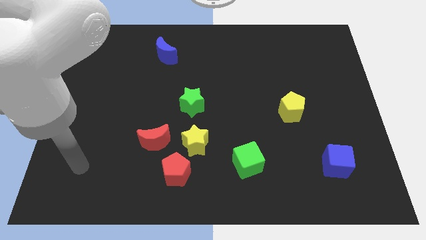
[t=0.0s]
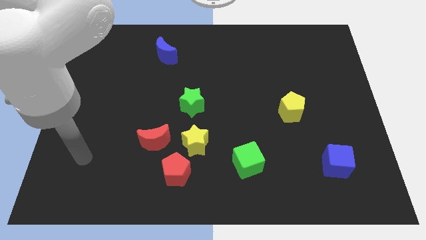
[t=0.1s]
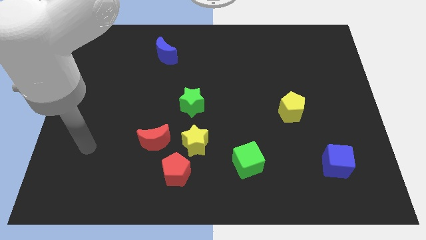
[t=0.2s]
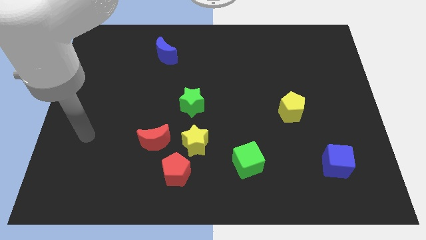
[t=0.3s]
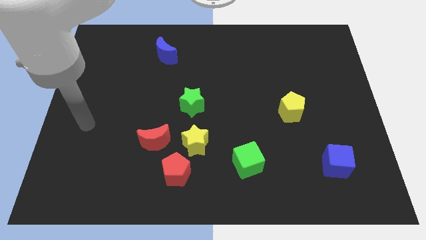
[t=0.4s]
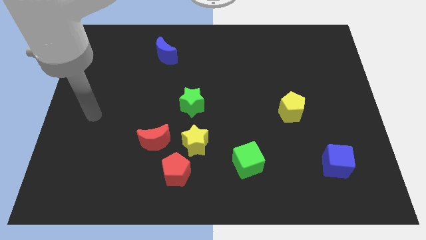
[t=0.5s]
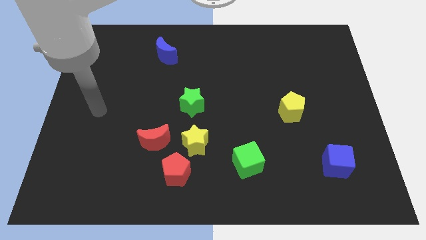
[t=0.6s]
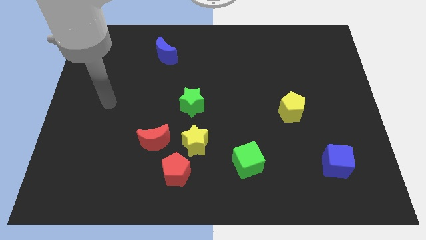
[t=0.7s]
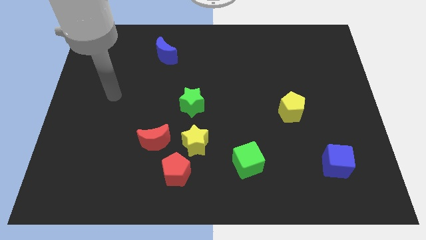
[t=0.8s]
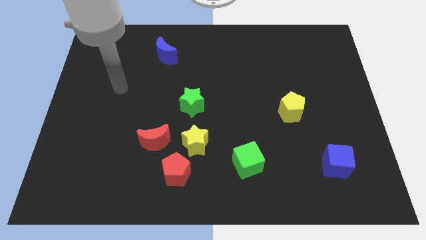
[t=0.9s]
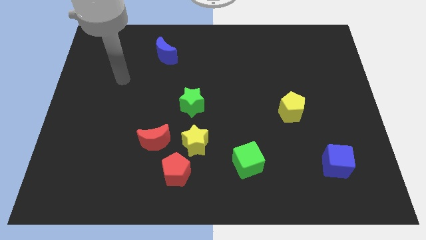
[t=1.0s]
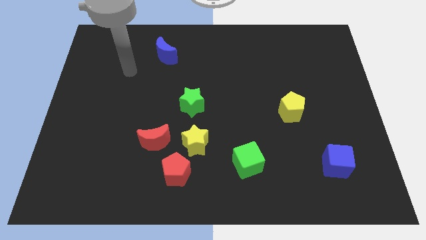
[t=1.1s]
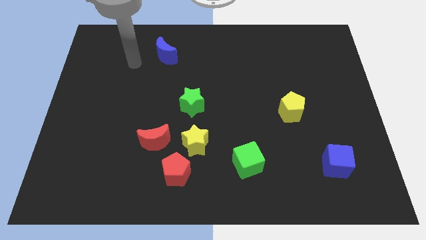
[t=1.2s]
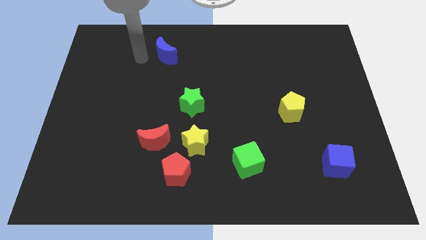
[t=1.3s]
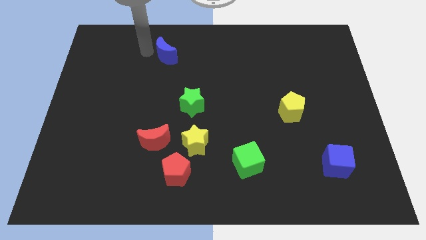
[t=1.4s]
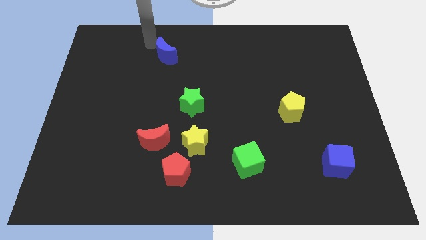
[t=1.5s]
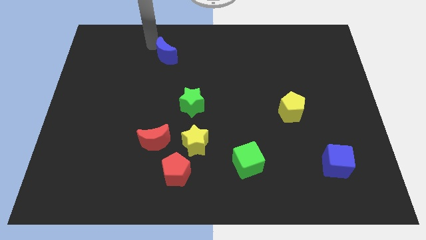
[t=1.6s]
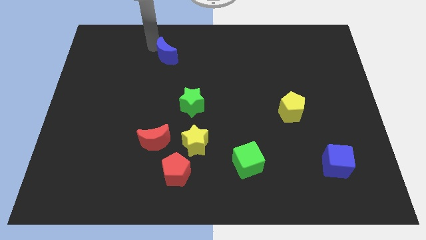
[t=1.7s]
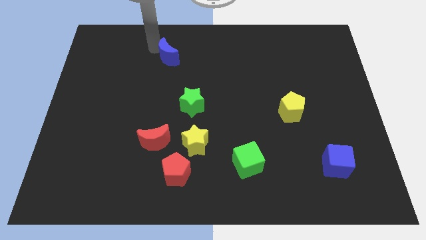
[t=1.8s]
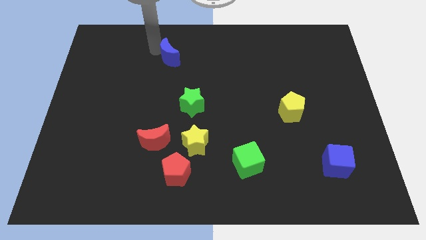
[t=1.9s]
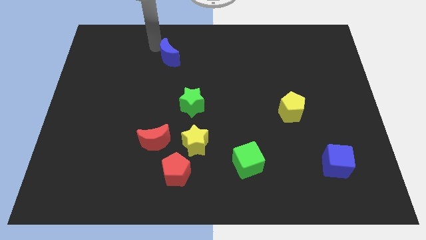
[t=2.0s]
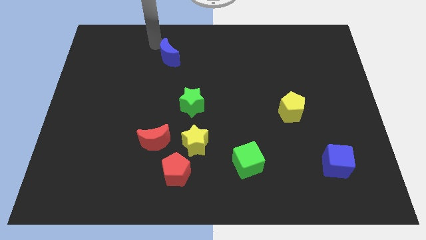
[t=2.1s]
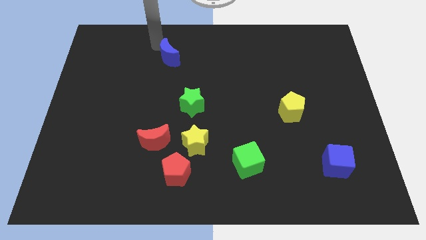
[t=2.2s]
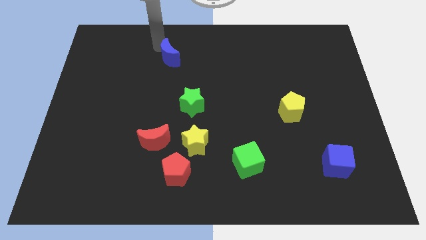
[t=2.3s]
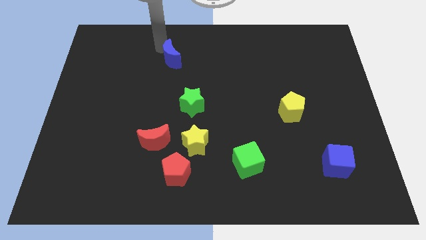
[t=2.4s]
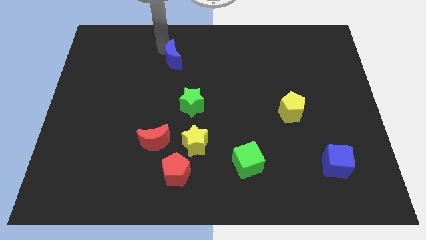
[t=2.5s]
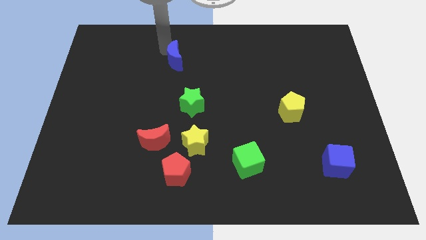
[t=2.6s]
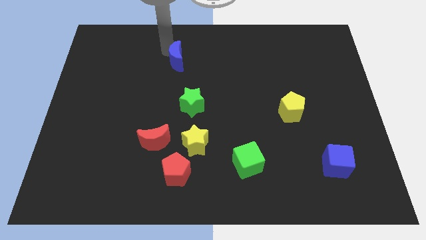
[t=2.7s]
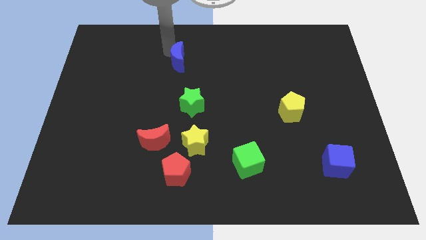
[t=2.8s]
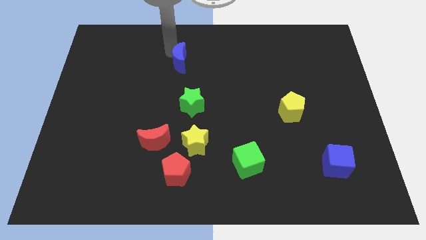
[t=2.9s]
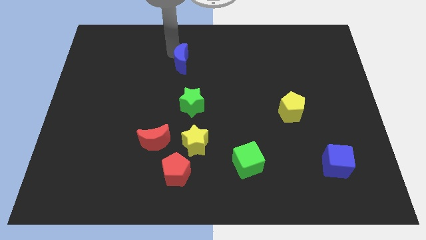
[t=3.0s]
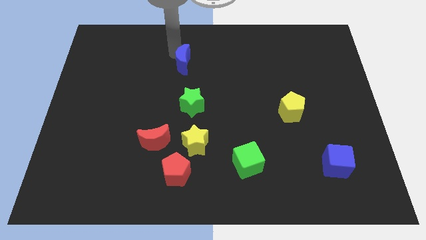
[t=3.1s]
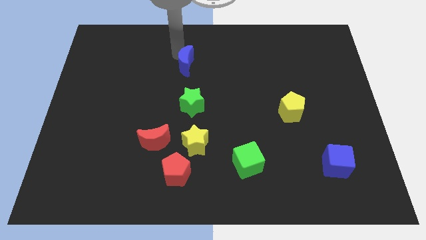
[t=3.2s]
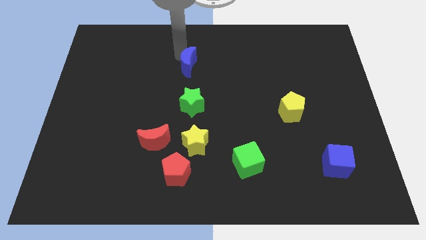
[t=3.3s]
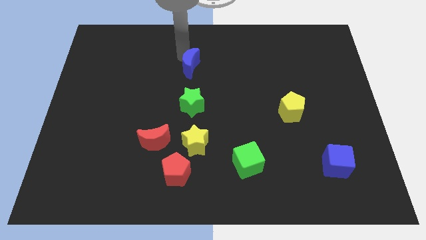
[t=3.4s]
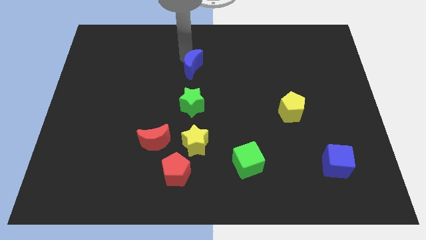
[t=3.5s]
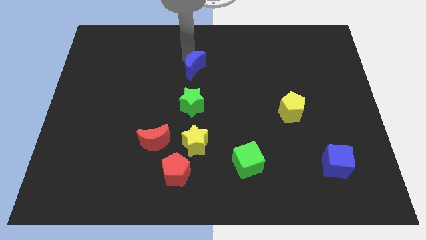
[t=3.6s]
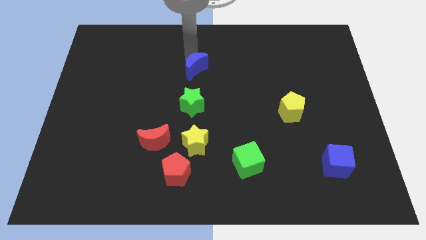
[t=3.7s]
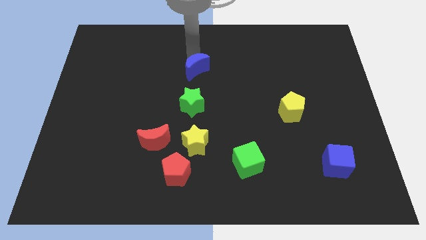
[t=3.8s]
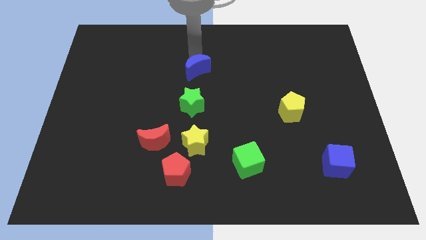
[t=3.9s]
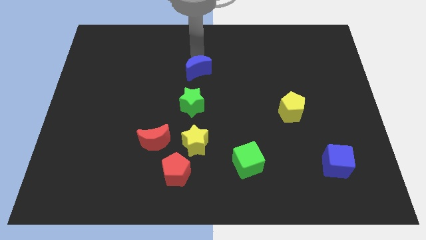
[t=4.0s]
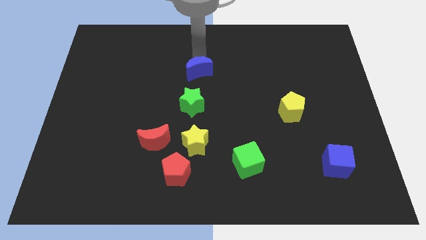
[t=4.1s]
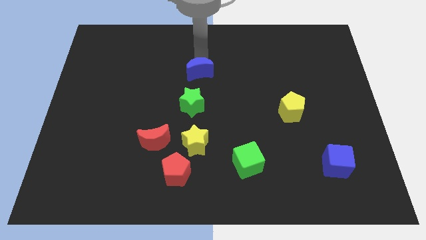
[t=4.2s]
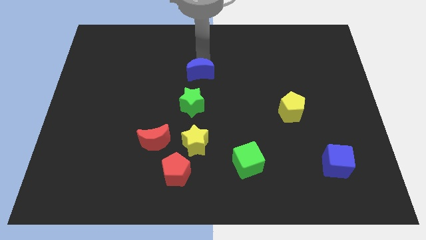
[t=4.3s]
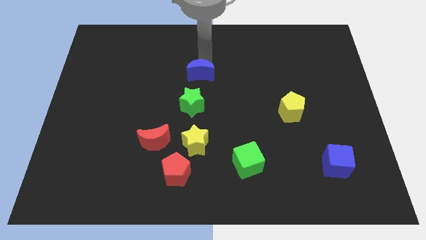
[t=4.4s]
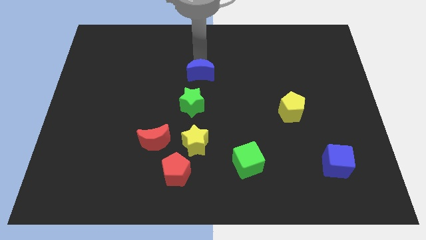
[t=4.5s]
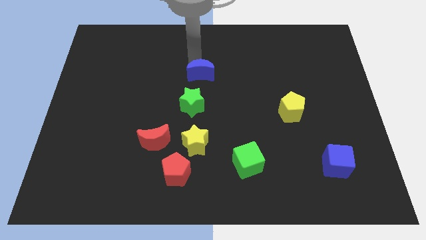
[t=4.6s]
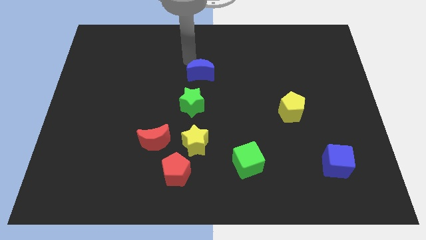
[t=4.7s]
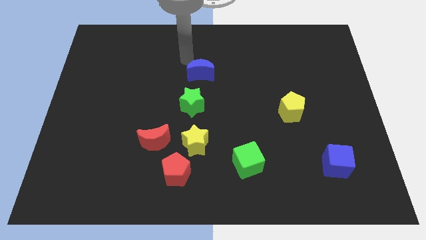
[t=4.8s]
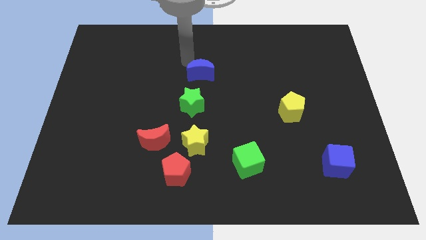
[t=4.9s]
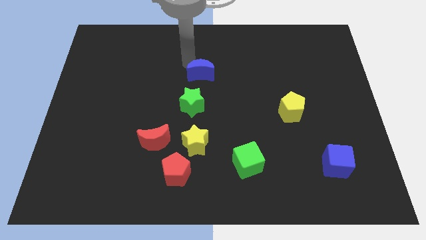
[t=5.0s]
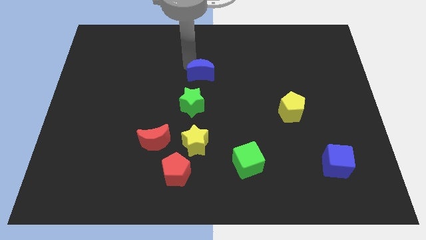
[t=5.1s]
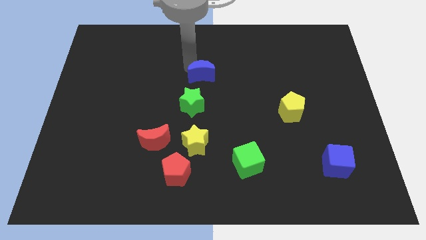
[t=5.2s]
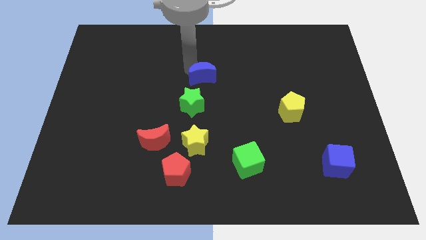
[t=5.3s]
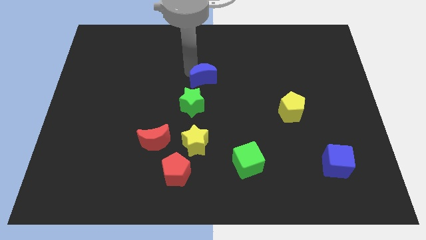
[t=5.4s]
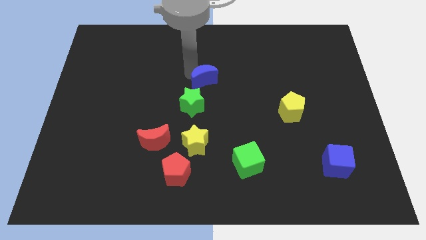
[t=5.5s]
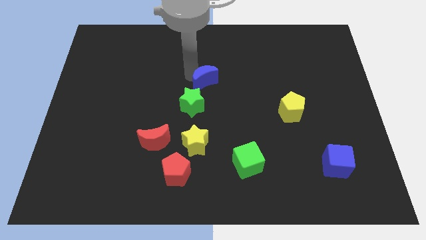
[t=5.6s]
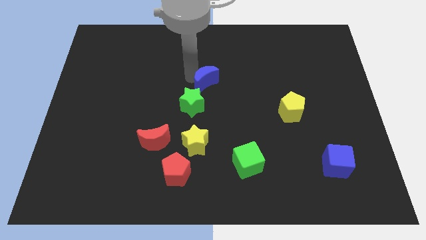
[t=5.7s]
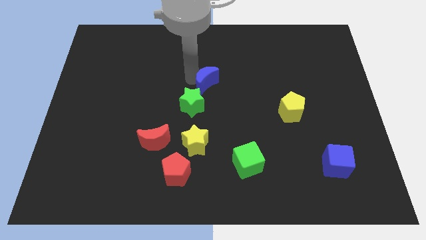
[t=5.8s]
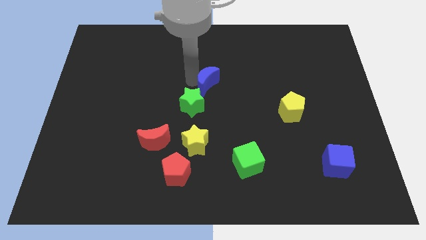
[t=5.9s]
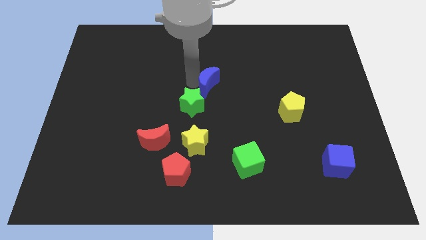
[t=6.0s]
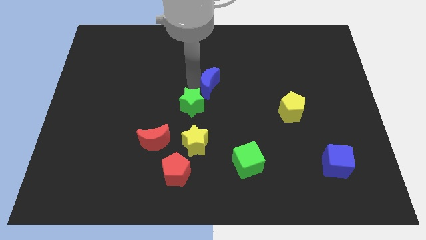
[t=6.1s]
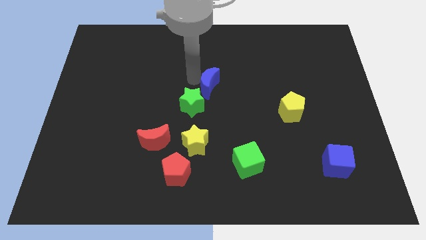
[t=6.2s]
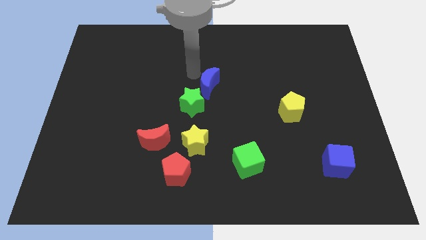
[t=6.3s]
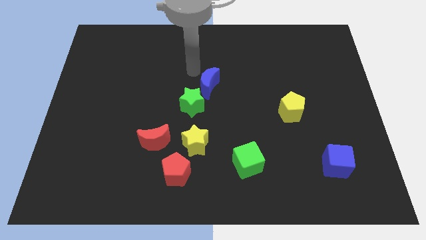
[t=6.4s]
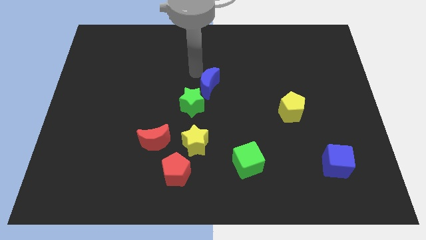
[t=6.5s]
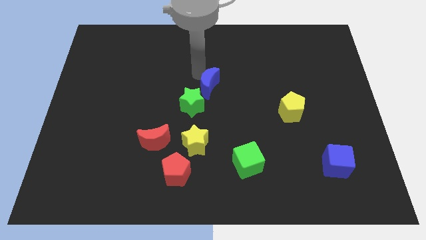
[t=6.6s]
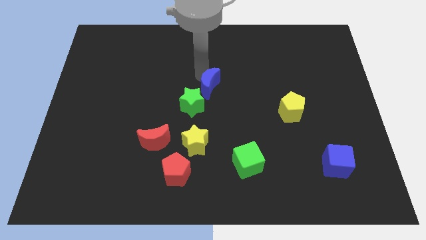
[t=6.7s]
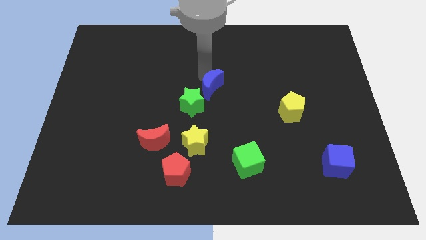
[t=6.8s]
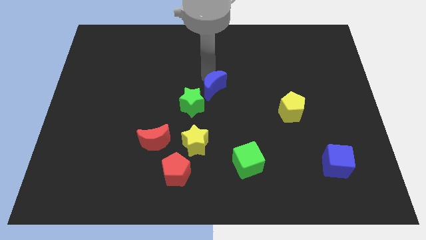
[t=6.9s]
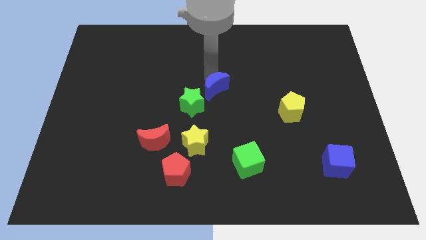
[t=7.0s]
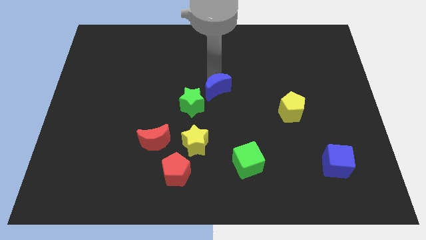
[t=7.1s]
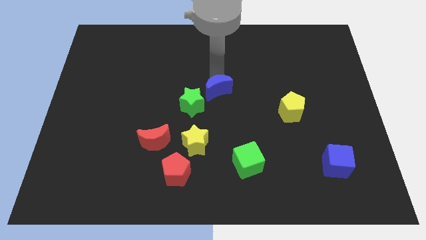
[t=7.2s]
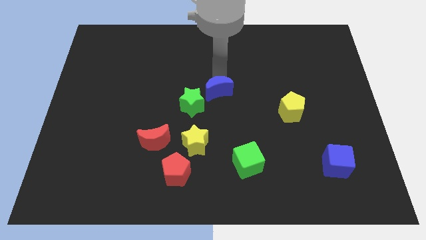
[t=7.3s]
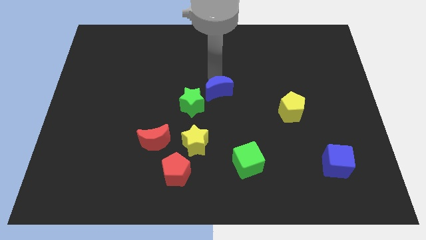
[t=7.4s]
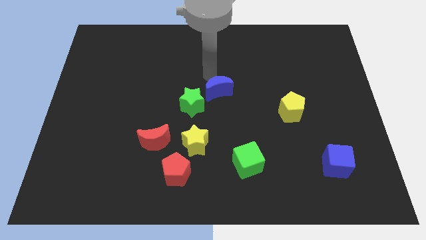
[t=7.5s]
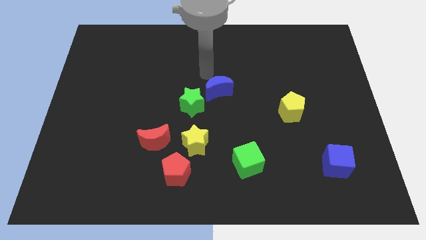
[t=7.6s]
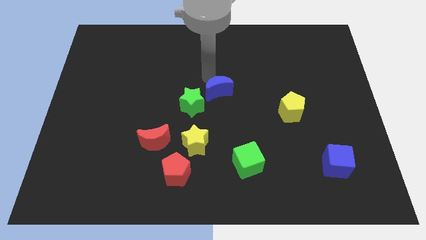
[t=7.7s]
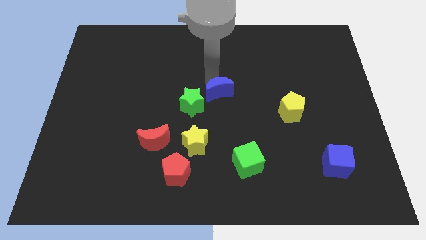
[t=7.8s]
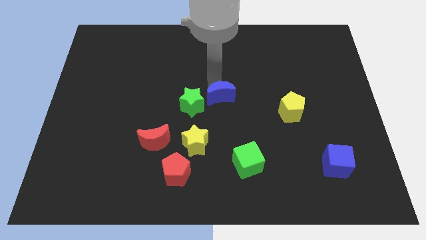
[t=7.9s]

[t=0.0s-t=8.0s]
slide the blue moon downwards and to the right
